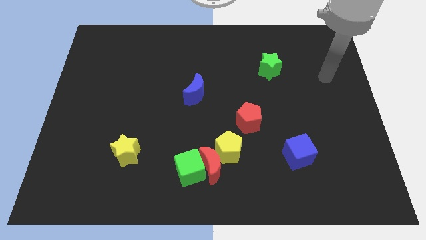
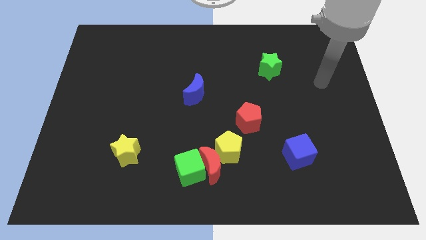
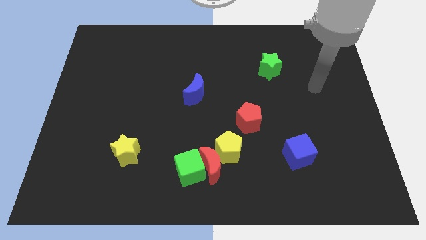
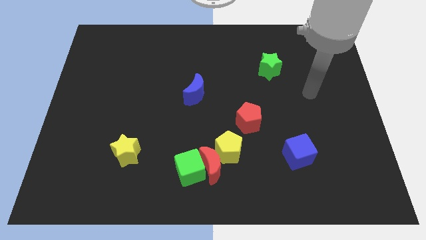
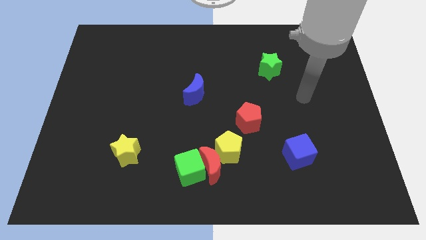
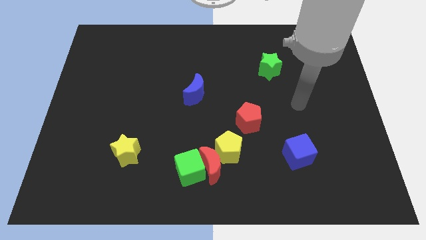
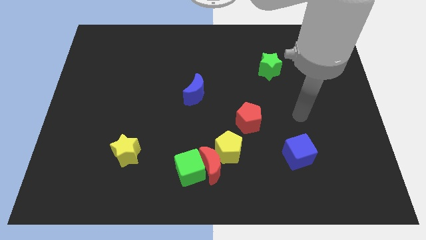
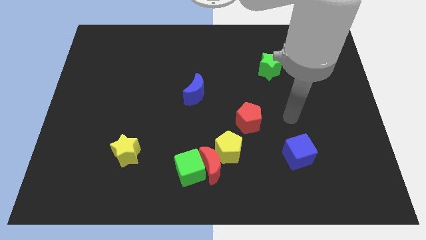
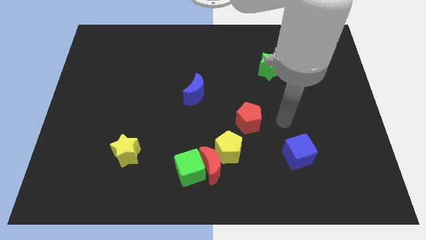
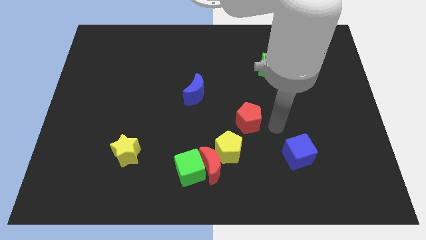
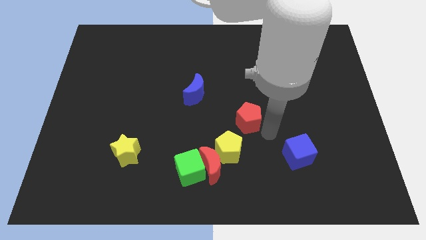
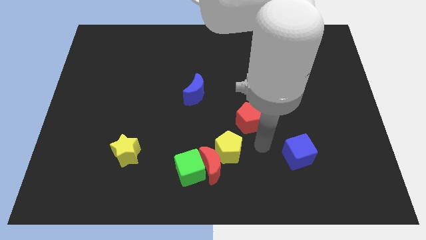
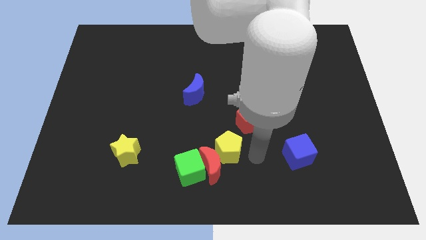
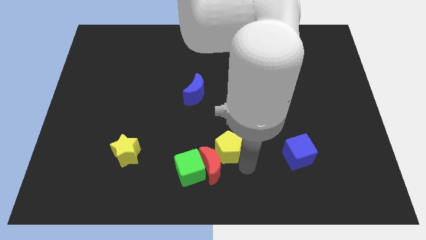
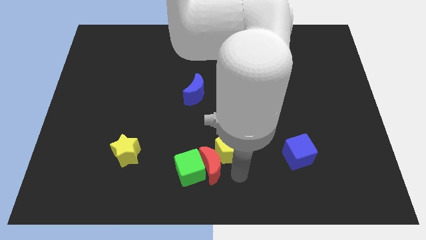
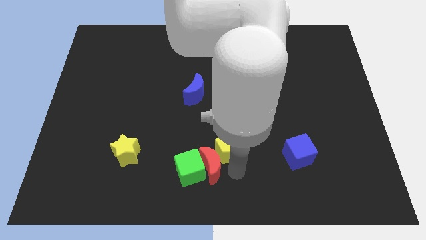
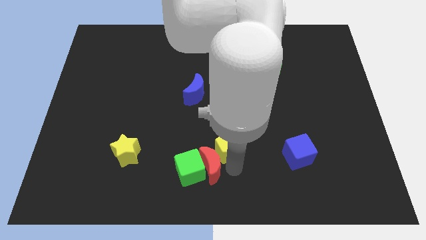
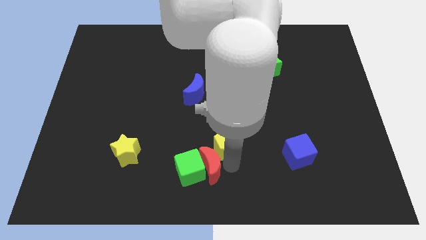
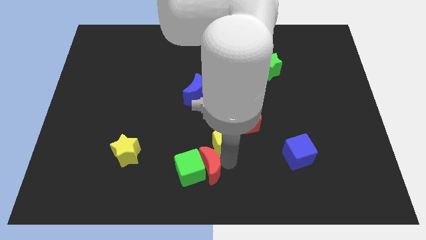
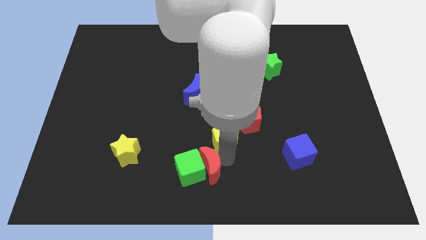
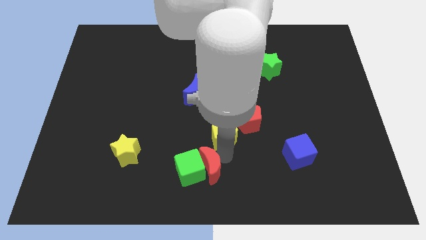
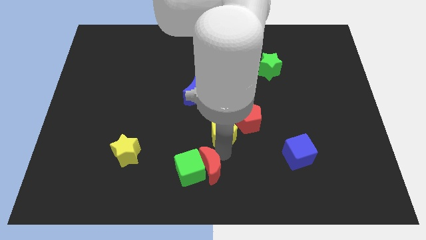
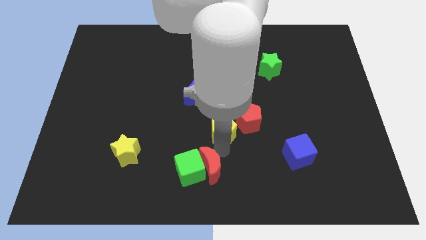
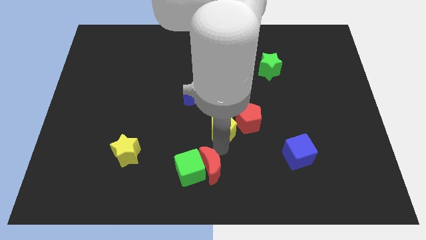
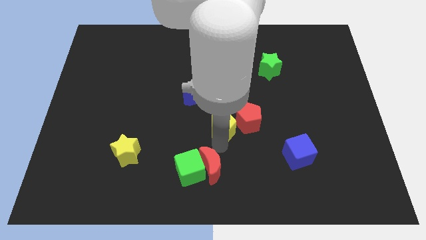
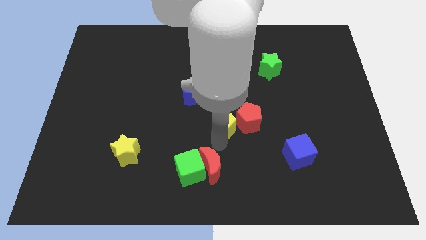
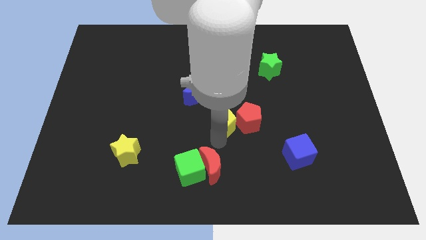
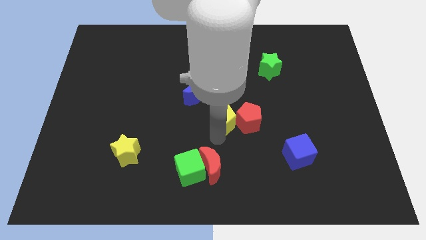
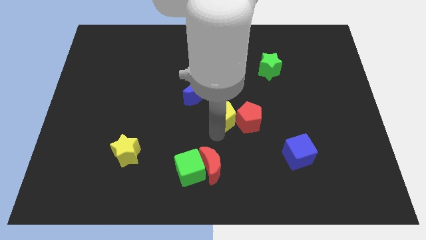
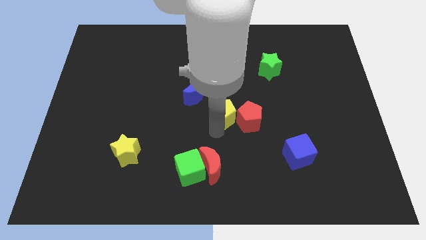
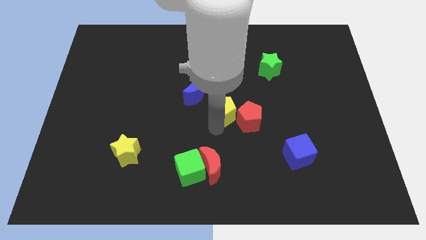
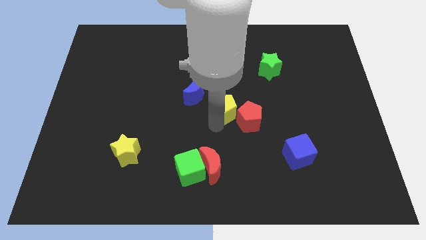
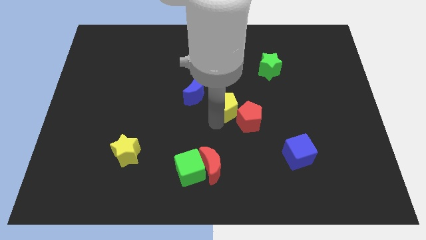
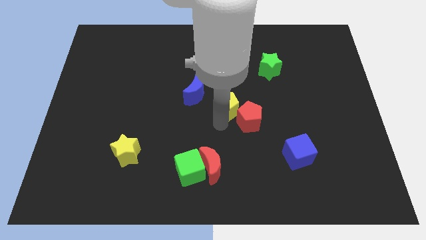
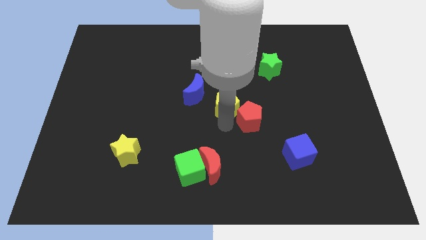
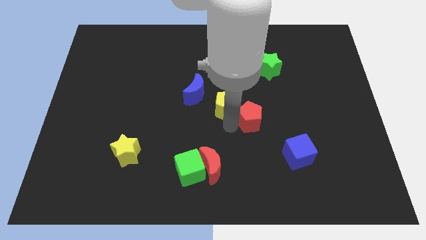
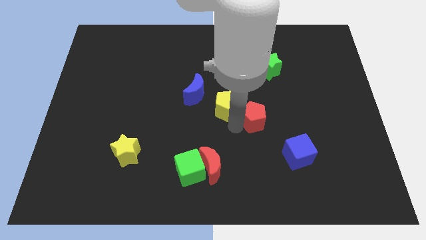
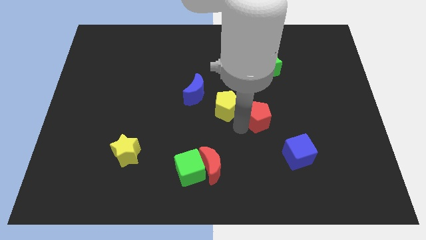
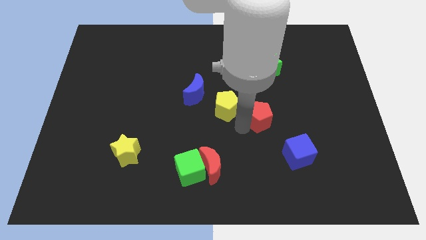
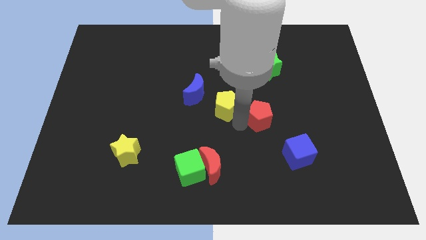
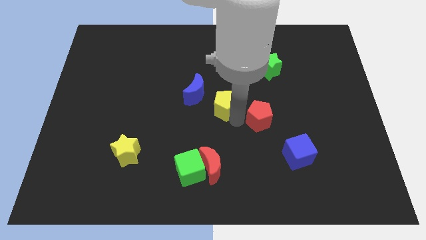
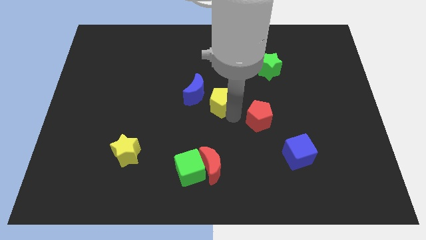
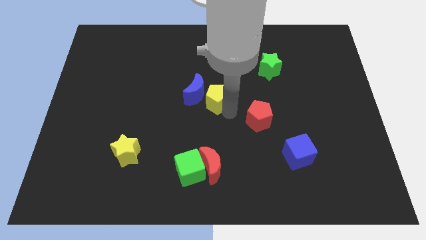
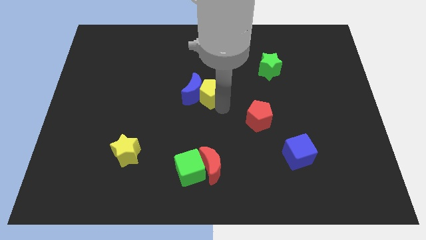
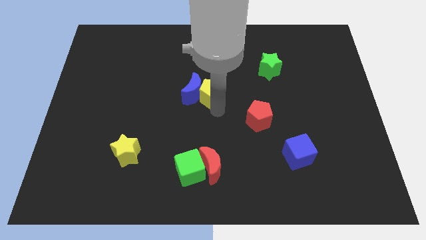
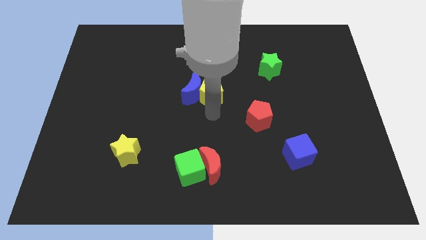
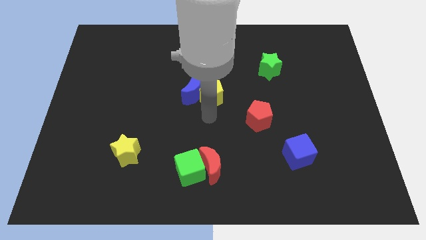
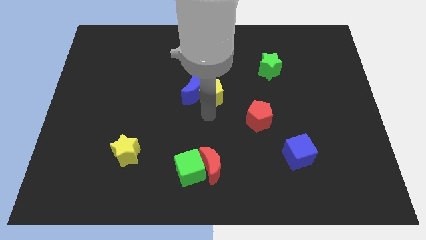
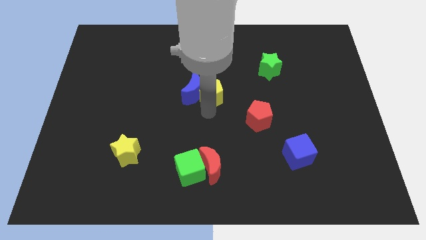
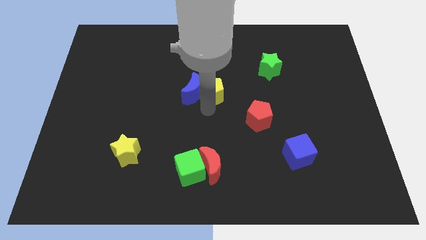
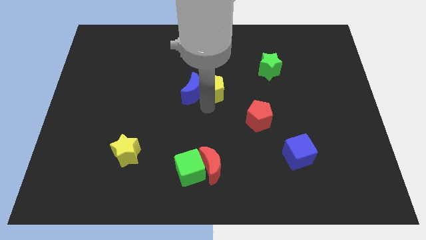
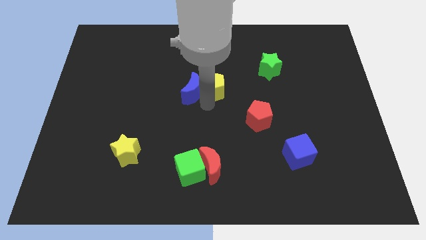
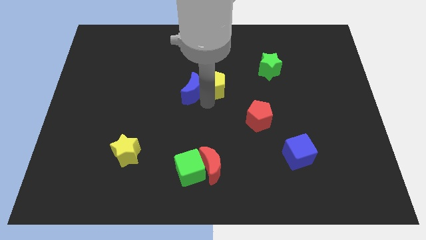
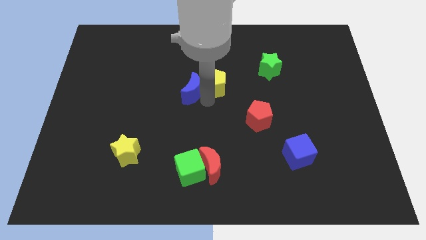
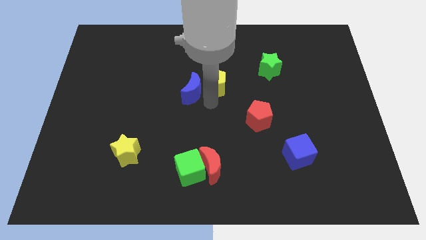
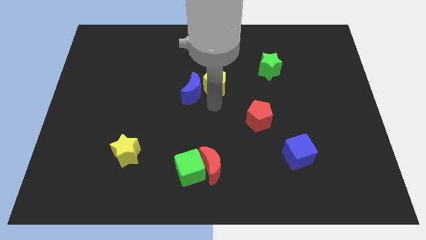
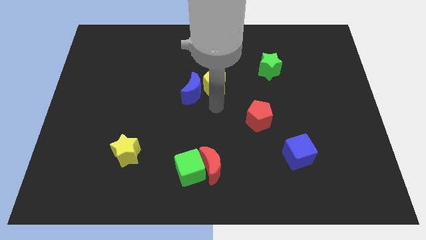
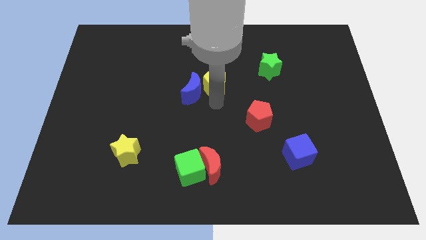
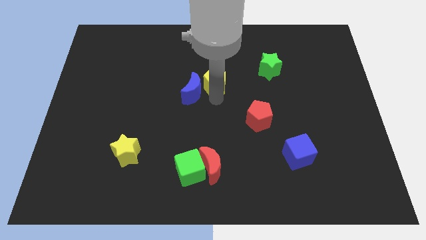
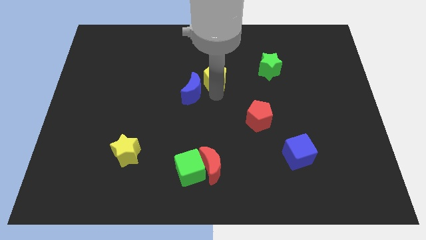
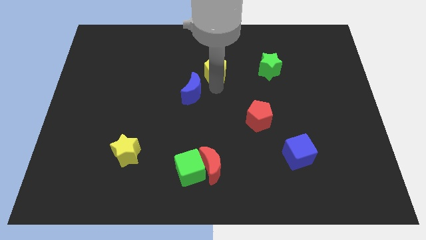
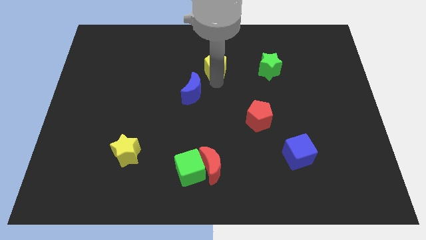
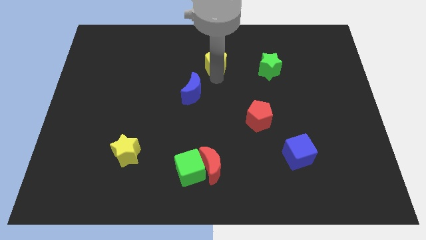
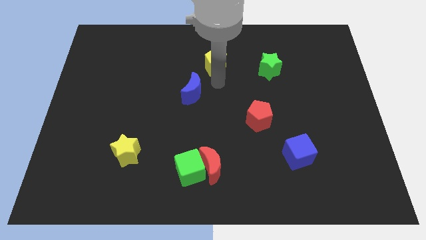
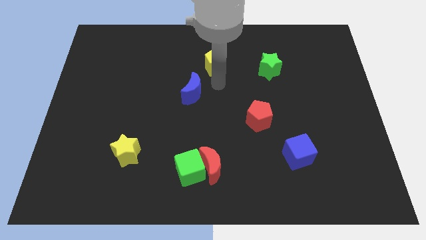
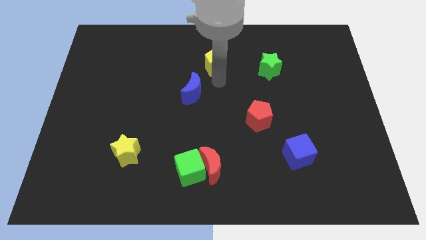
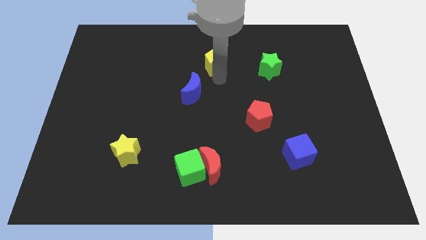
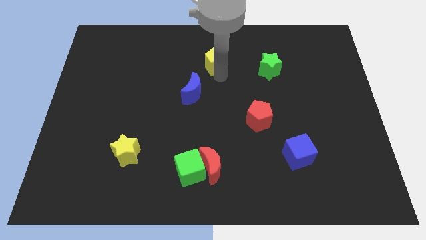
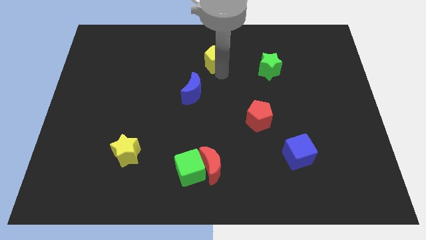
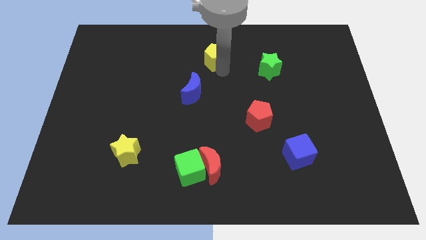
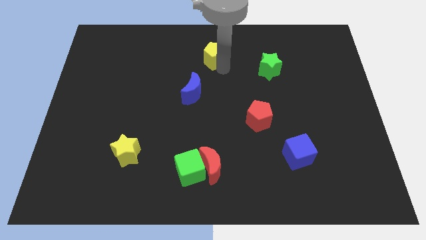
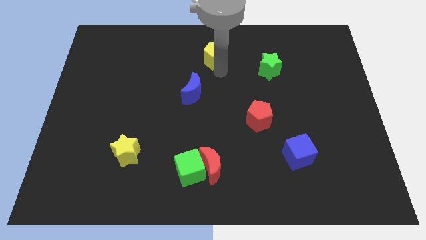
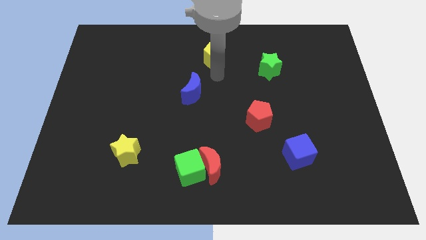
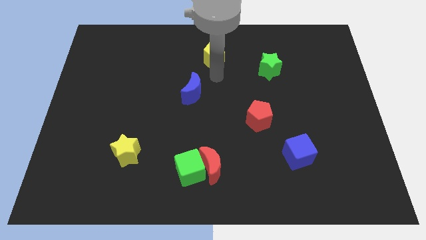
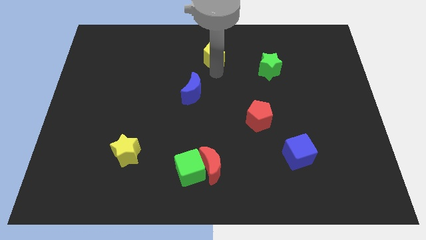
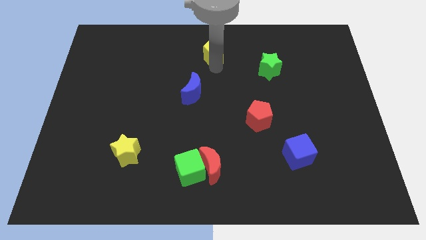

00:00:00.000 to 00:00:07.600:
push the yellow pentagon to the towards your base
